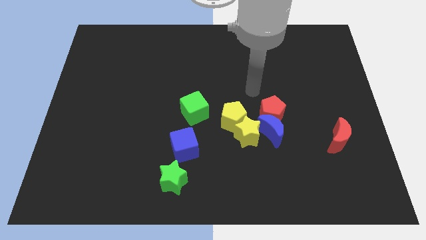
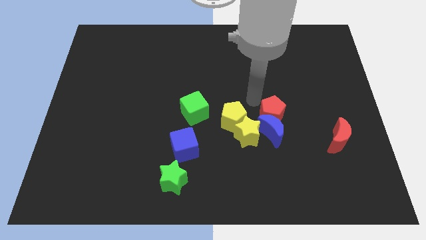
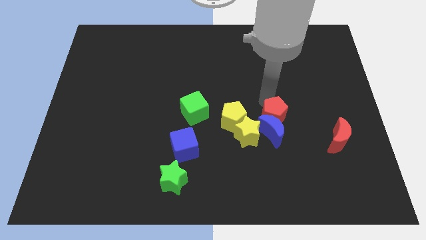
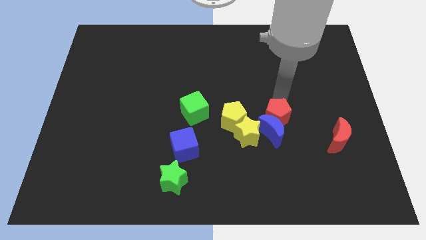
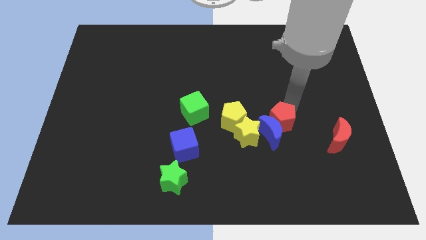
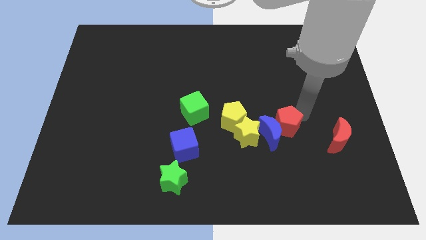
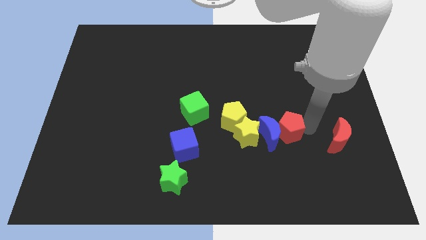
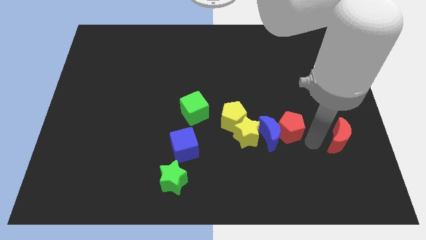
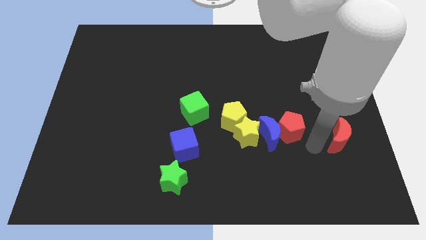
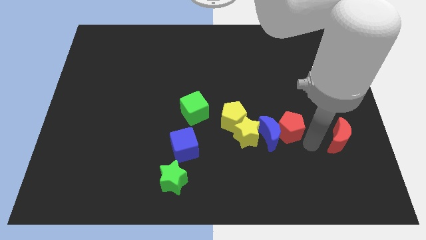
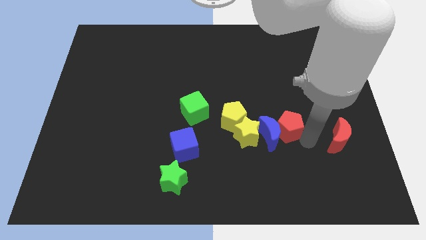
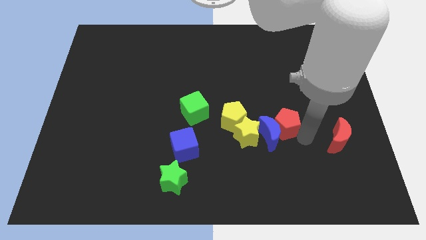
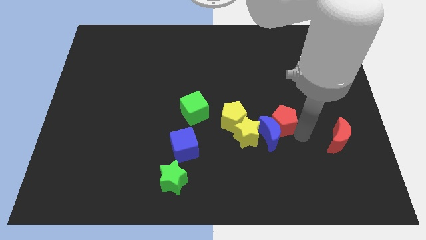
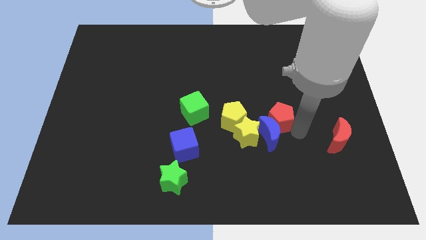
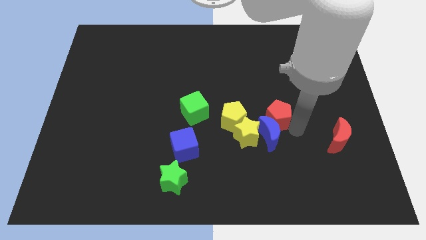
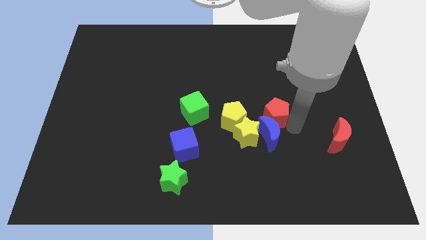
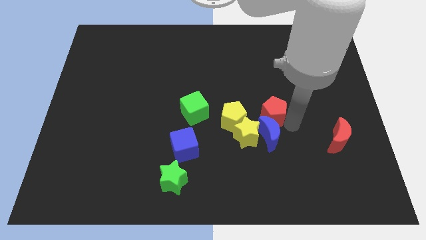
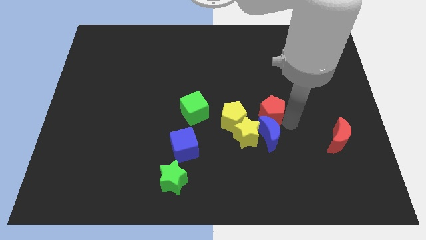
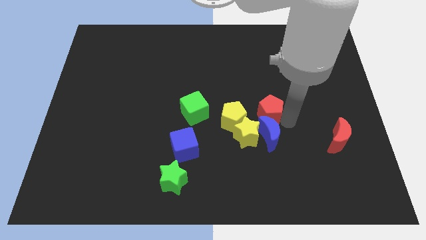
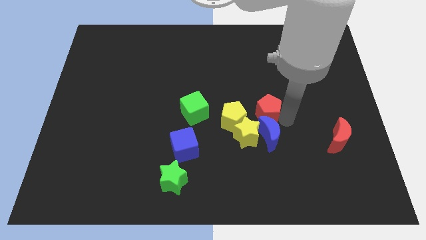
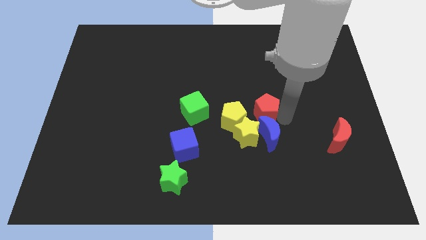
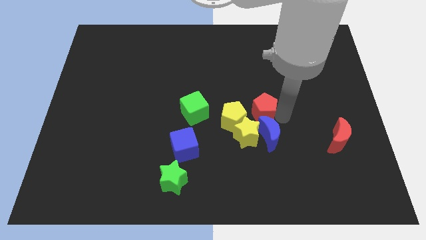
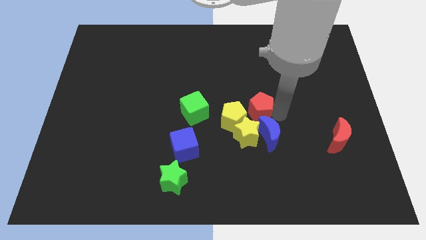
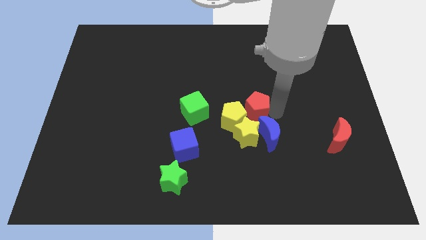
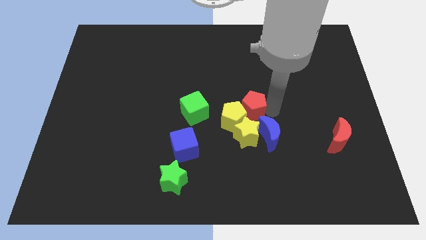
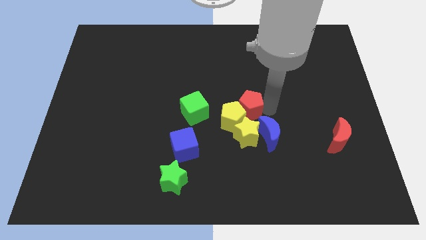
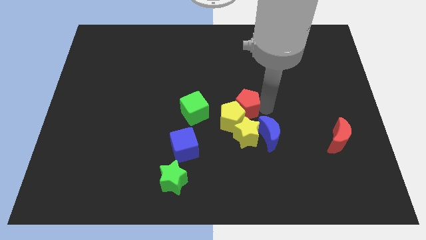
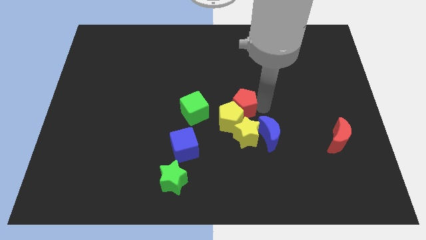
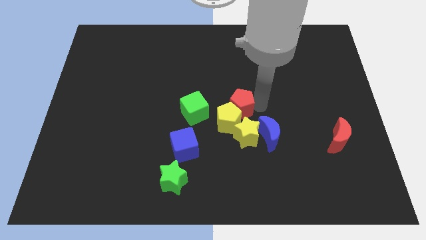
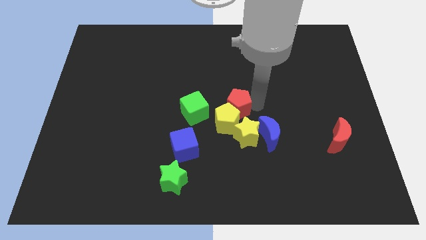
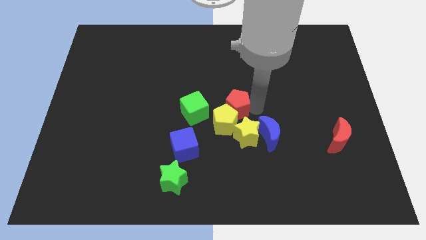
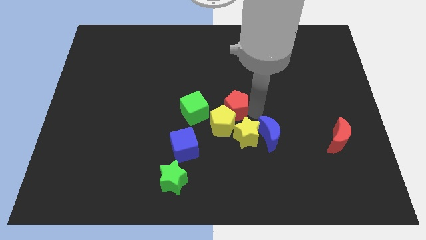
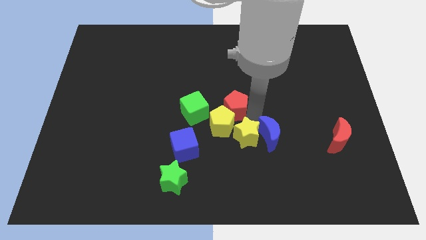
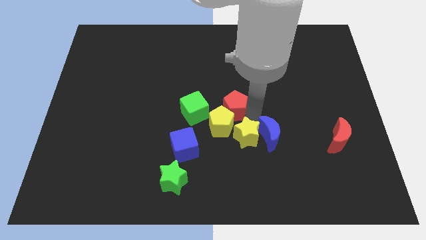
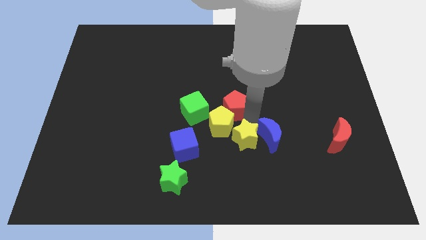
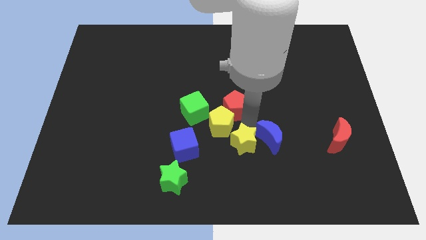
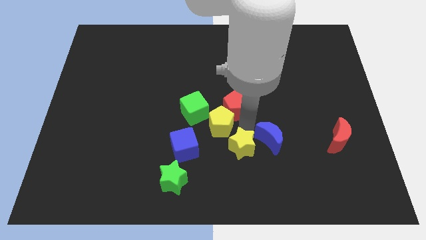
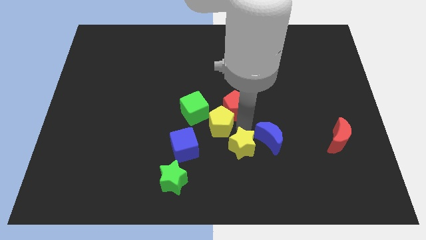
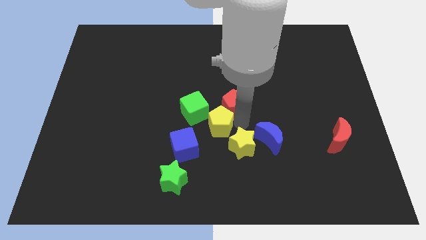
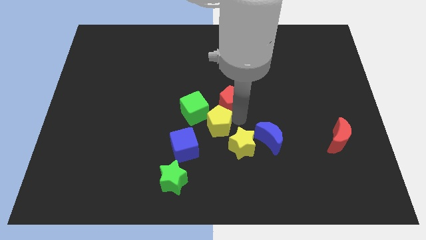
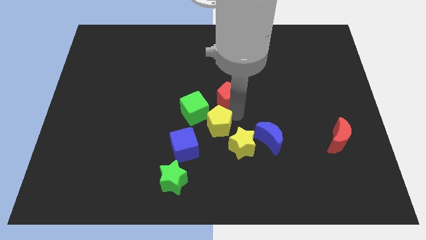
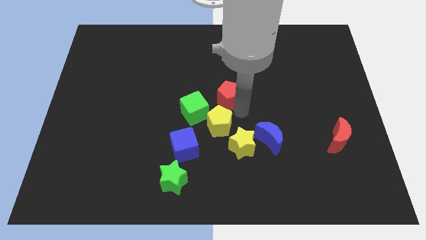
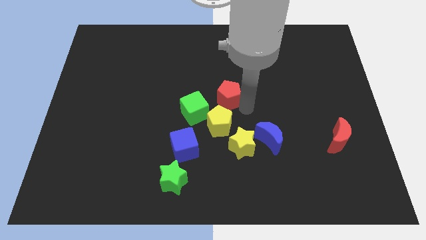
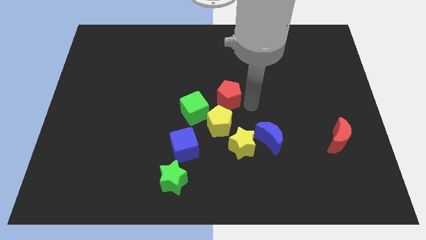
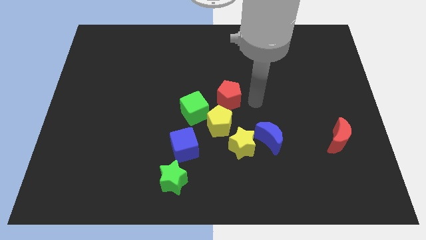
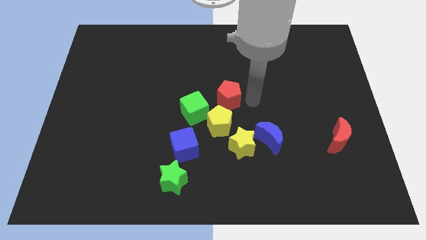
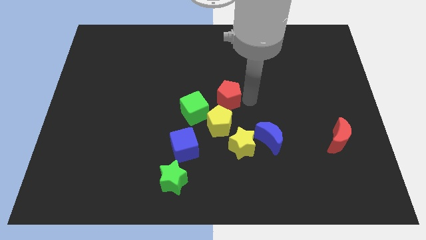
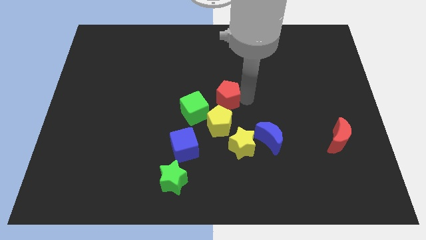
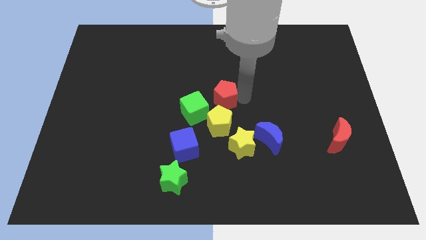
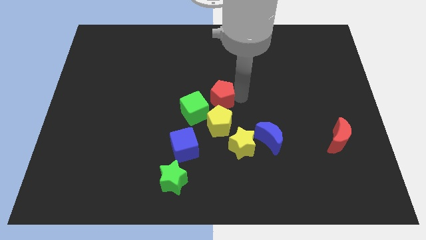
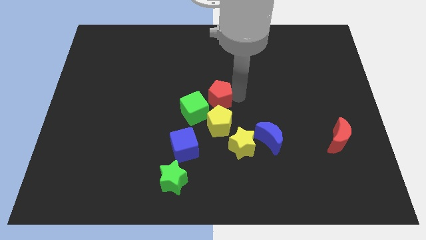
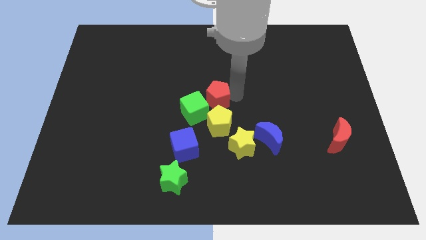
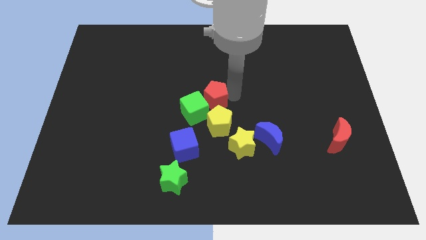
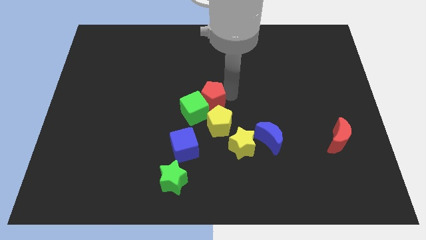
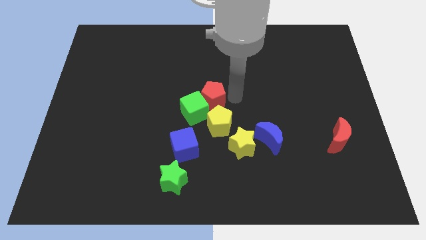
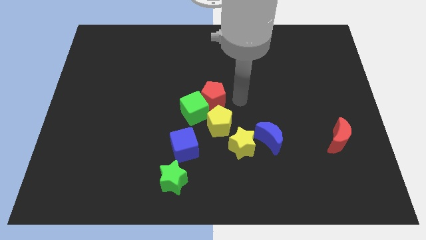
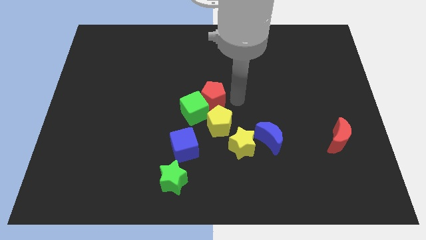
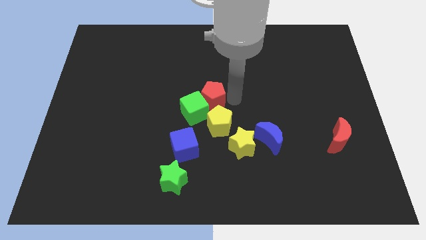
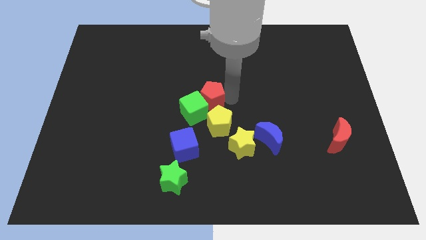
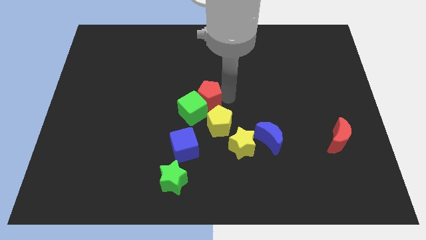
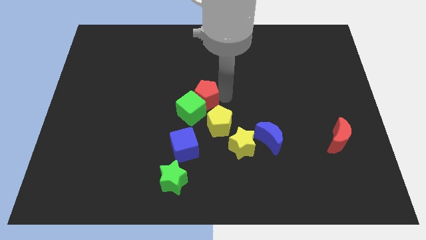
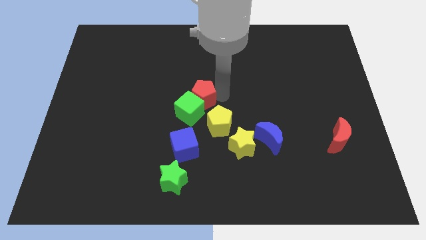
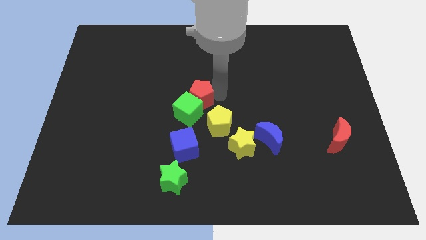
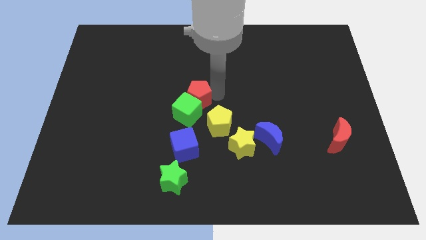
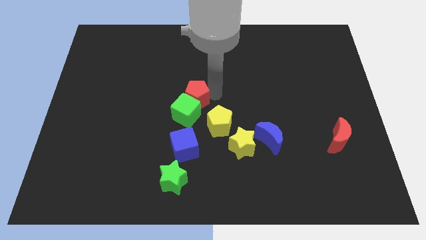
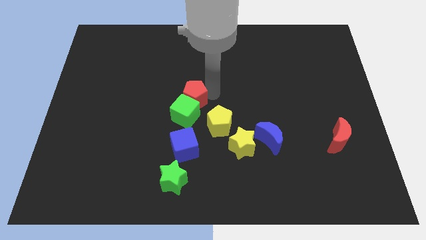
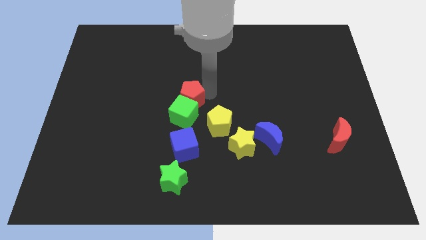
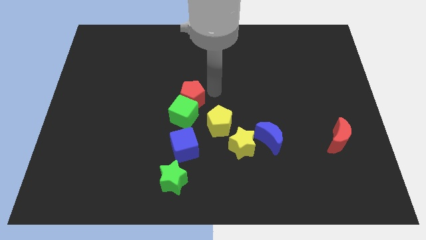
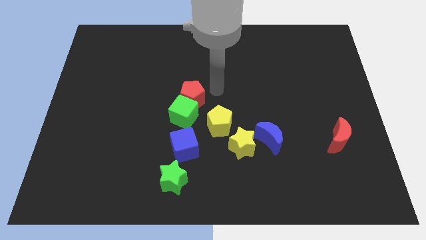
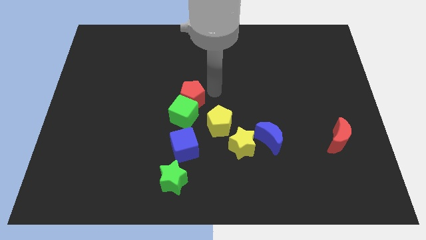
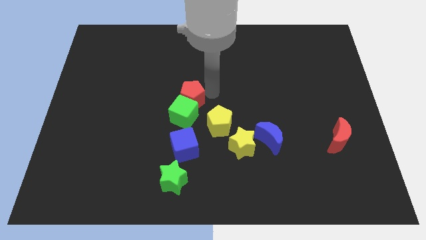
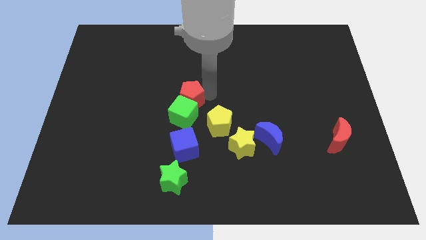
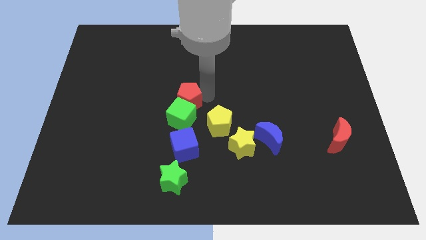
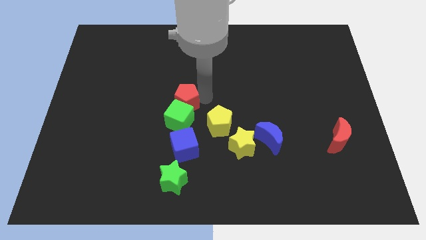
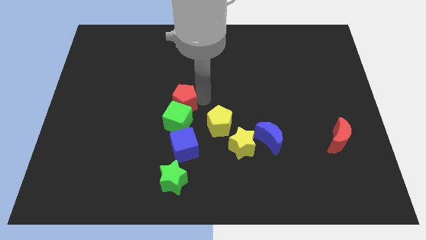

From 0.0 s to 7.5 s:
slide the red pentagon left
